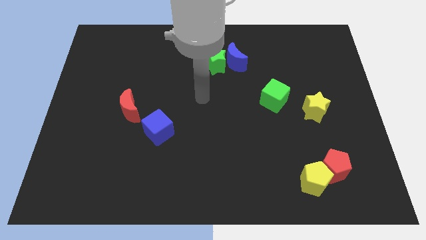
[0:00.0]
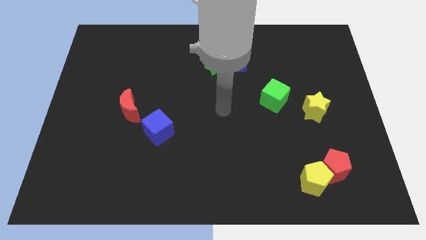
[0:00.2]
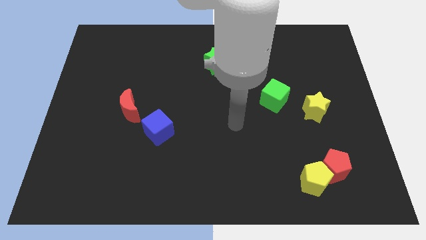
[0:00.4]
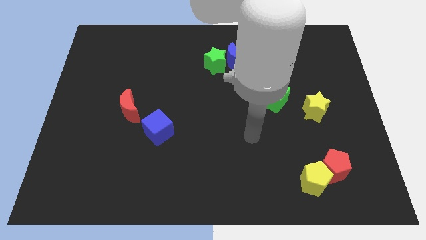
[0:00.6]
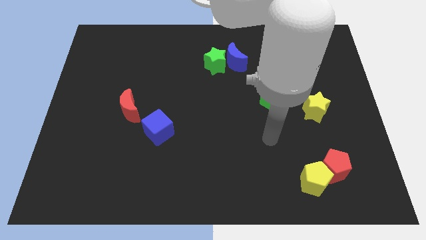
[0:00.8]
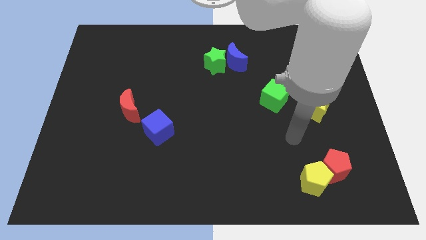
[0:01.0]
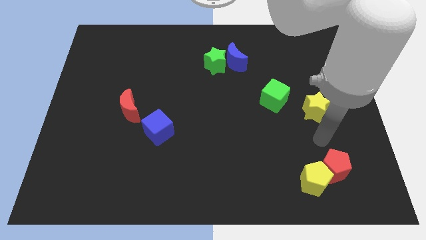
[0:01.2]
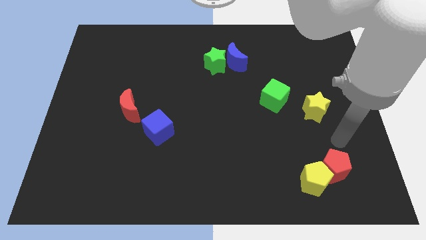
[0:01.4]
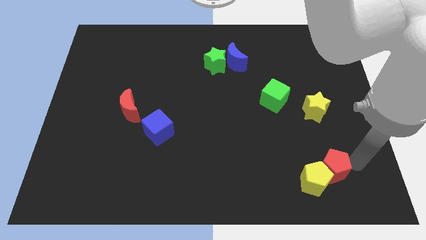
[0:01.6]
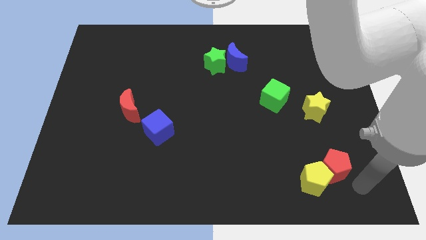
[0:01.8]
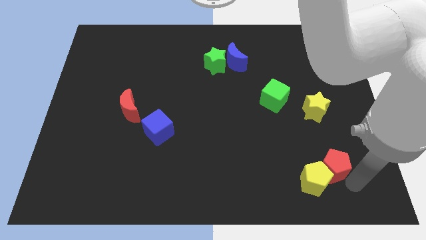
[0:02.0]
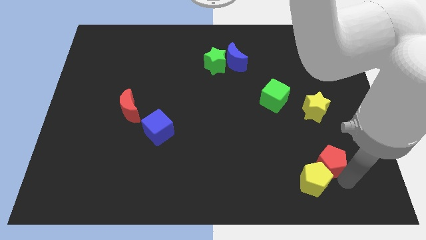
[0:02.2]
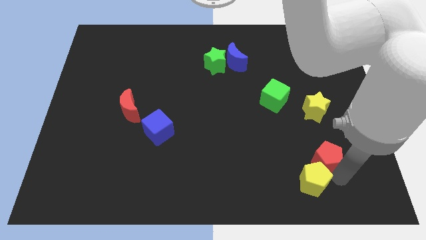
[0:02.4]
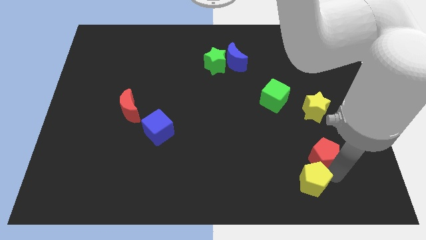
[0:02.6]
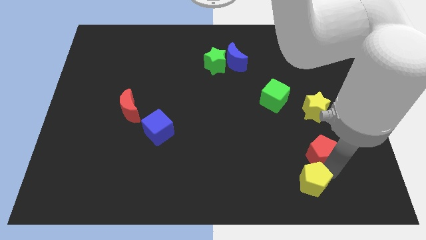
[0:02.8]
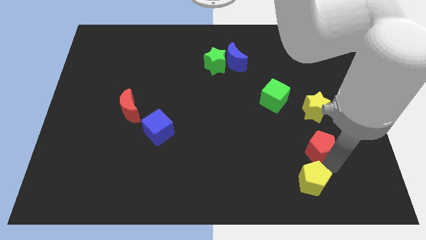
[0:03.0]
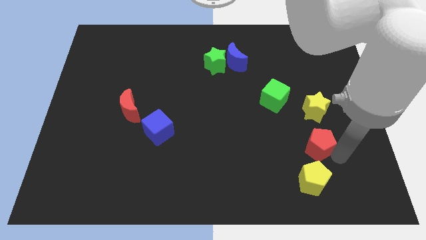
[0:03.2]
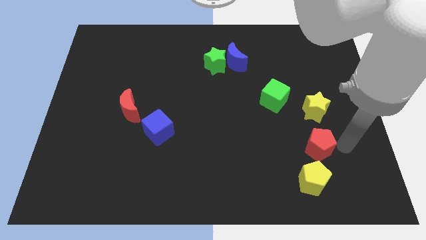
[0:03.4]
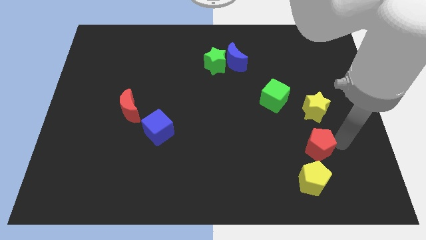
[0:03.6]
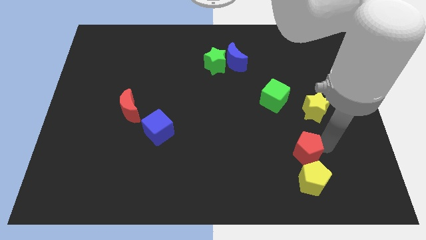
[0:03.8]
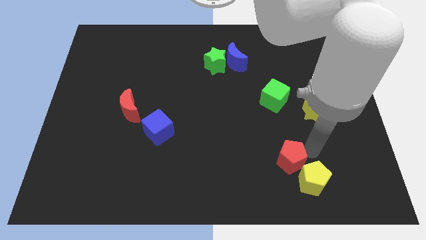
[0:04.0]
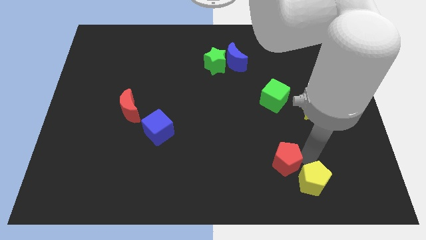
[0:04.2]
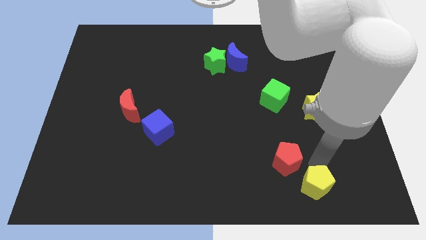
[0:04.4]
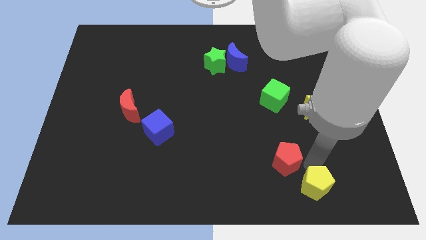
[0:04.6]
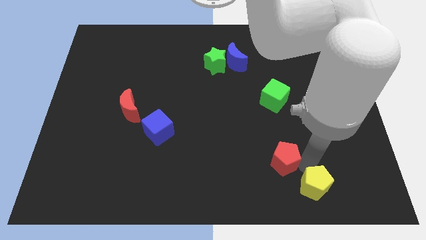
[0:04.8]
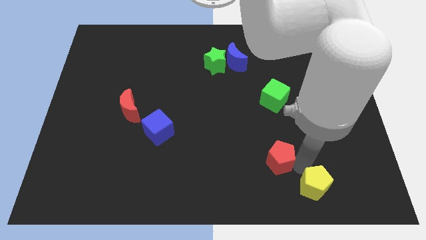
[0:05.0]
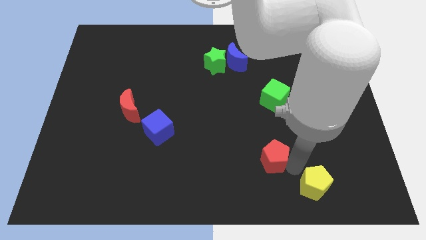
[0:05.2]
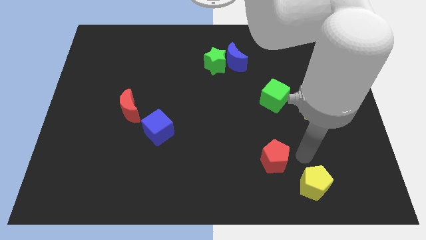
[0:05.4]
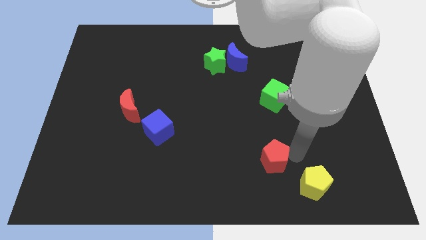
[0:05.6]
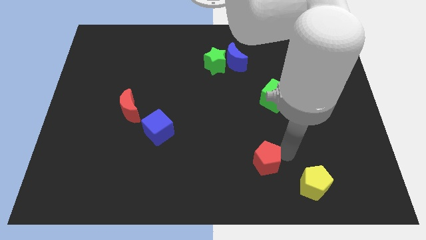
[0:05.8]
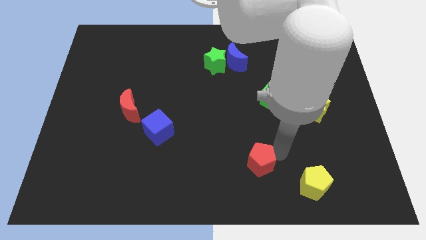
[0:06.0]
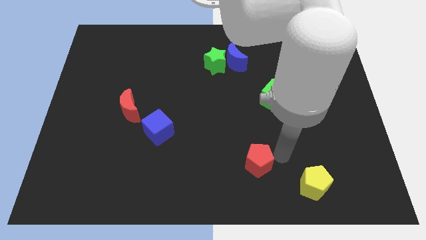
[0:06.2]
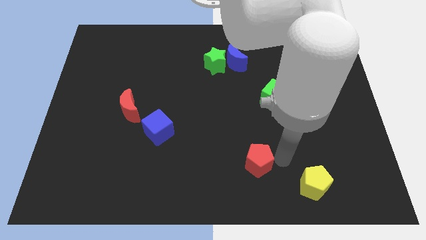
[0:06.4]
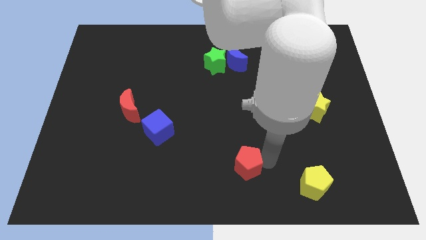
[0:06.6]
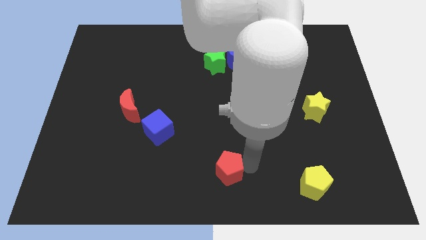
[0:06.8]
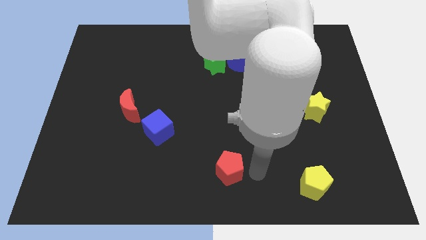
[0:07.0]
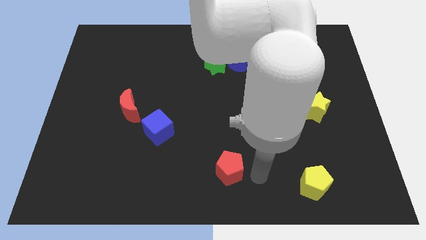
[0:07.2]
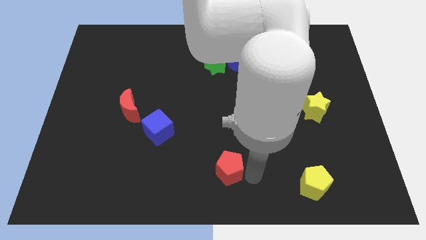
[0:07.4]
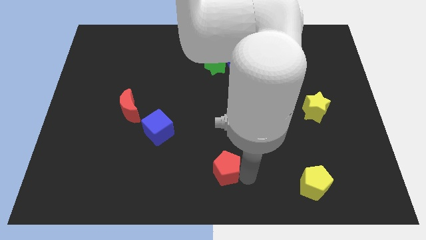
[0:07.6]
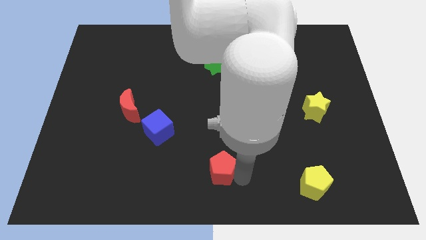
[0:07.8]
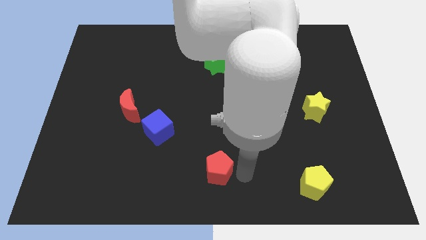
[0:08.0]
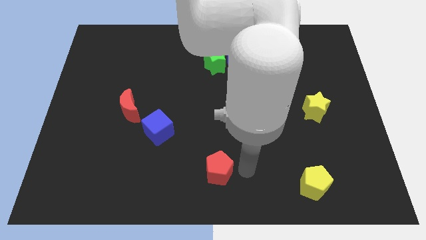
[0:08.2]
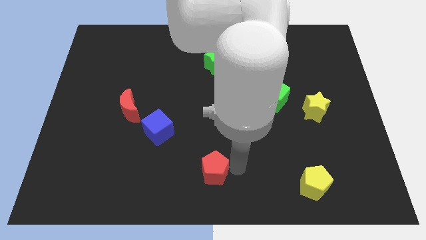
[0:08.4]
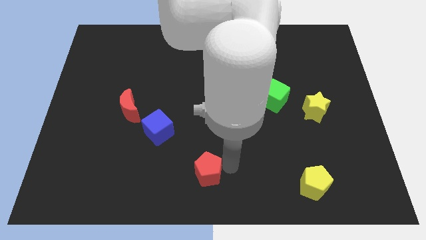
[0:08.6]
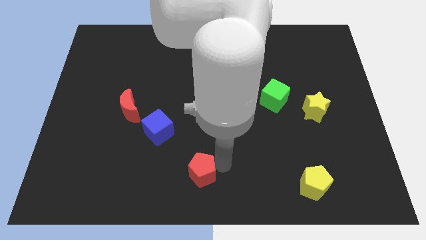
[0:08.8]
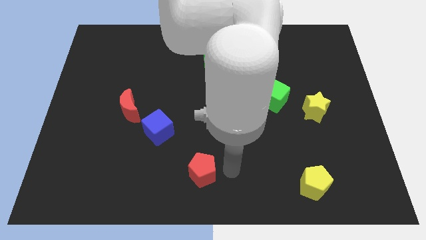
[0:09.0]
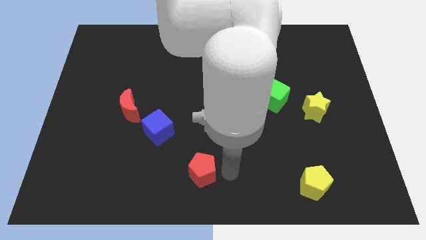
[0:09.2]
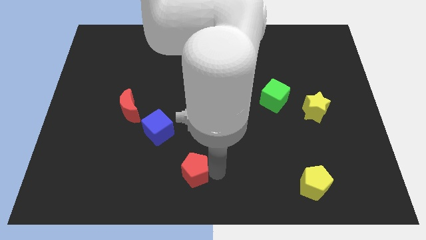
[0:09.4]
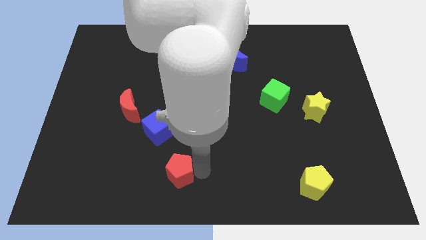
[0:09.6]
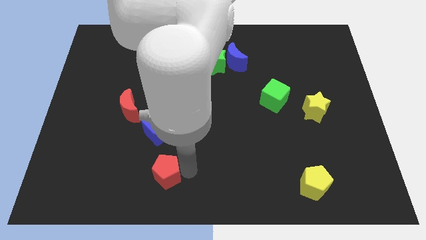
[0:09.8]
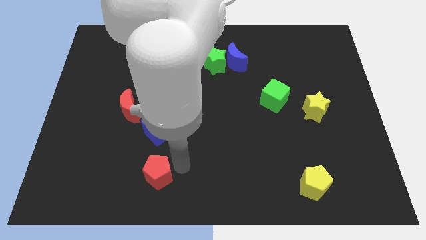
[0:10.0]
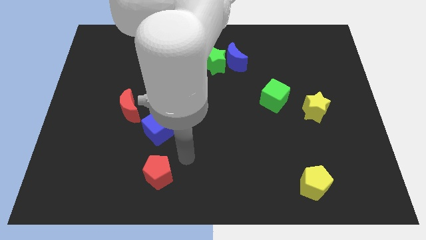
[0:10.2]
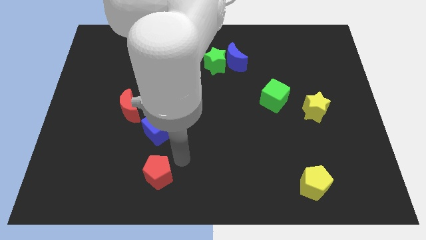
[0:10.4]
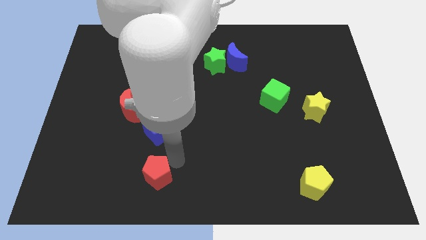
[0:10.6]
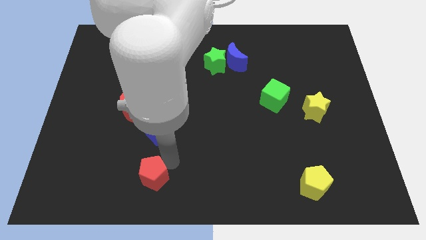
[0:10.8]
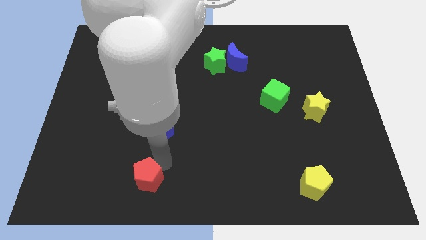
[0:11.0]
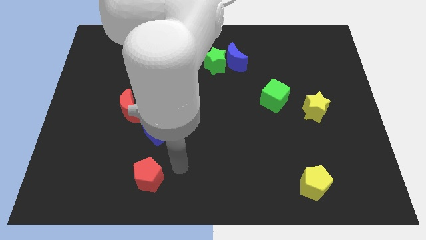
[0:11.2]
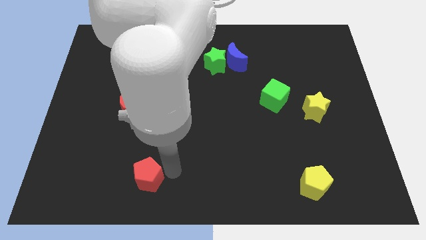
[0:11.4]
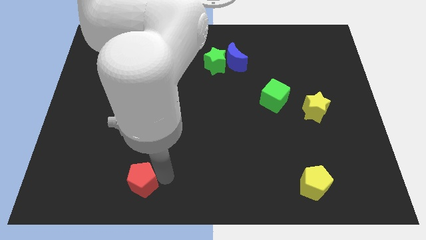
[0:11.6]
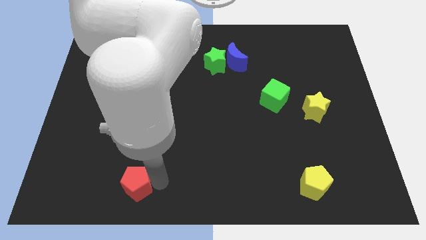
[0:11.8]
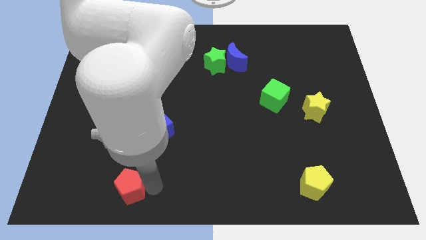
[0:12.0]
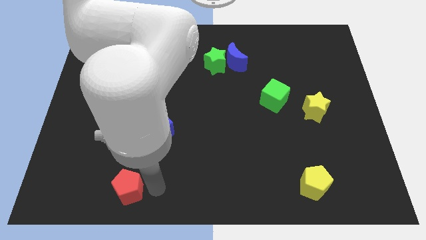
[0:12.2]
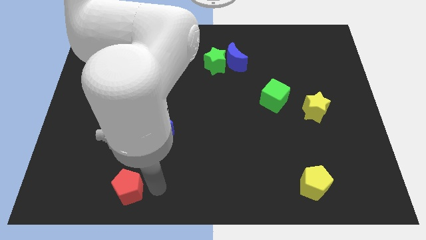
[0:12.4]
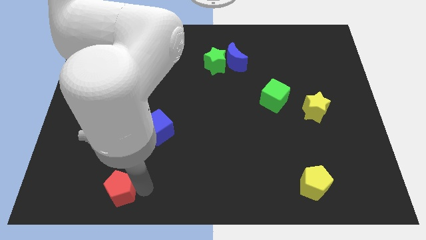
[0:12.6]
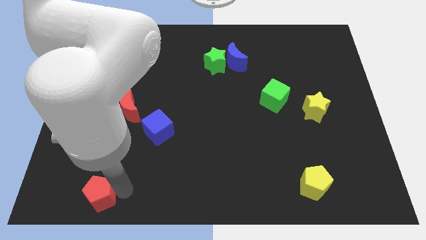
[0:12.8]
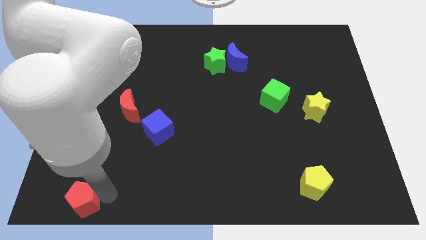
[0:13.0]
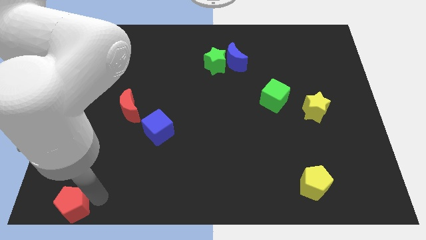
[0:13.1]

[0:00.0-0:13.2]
slide the red pentagon to the bottom left

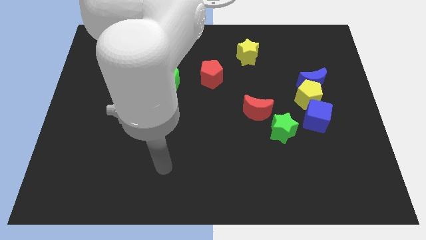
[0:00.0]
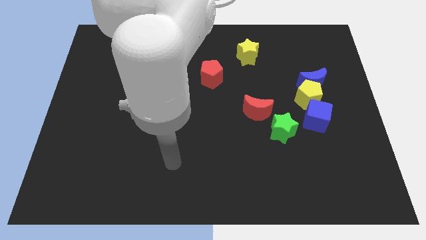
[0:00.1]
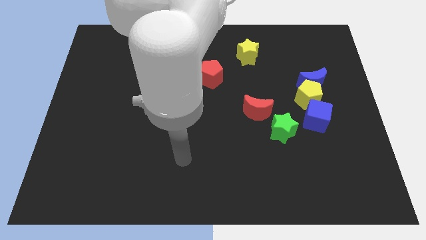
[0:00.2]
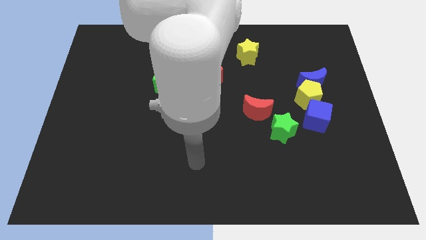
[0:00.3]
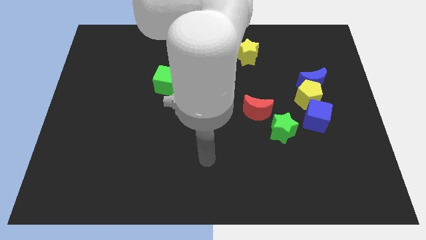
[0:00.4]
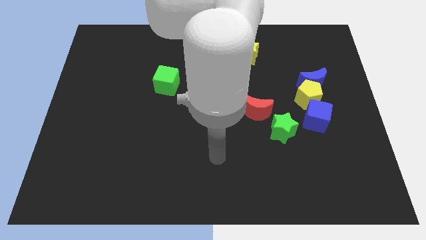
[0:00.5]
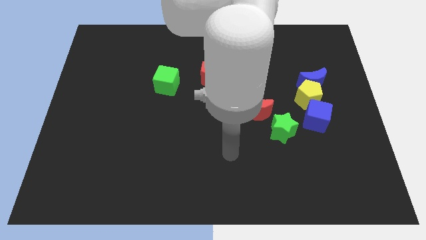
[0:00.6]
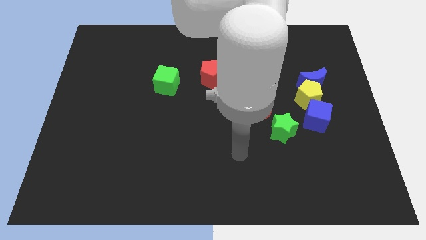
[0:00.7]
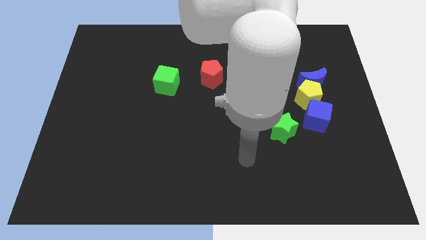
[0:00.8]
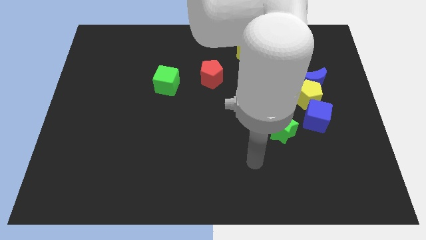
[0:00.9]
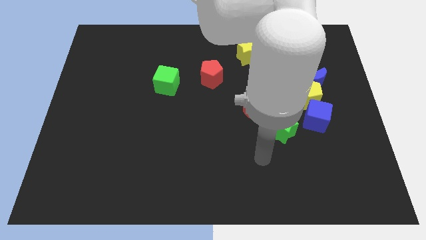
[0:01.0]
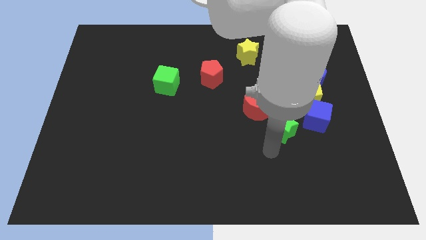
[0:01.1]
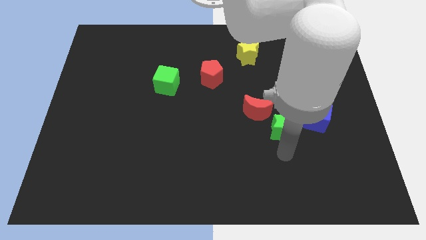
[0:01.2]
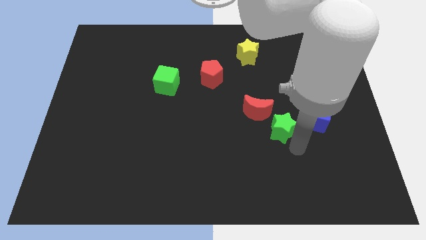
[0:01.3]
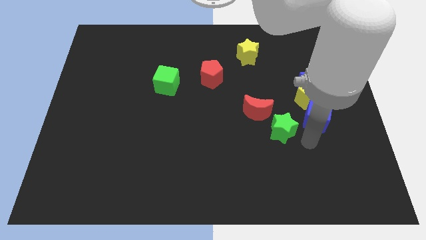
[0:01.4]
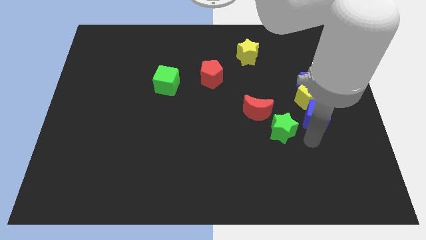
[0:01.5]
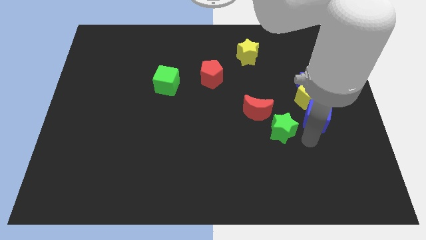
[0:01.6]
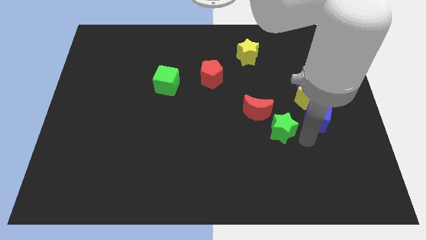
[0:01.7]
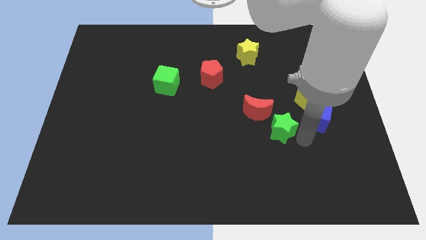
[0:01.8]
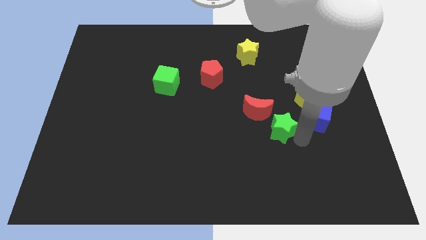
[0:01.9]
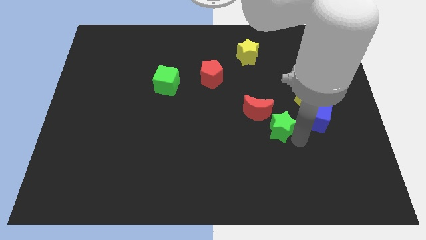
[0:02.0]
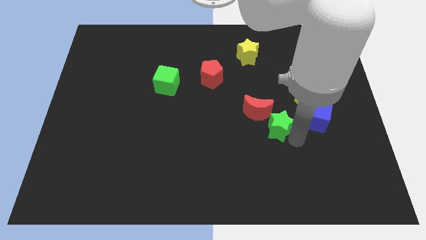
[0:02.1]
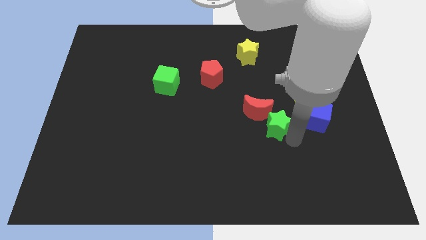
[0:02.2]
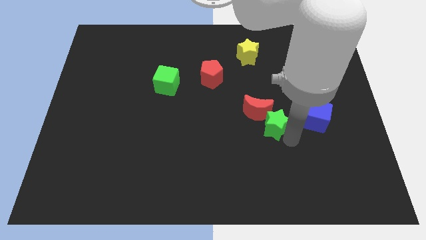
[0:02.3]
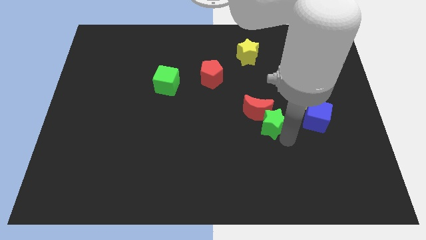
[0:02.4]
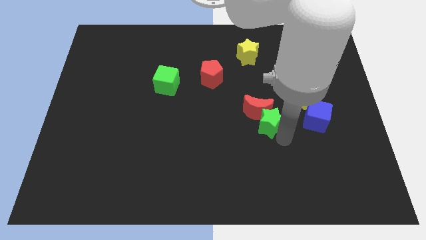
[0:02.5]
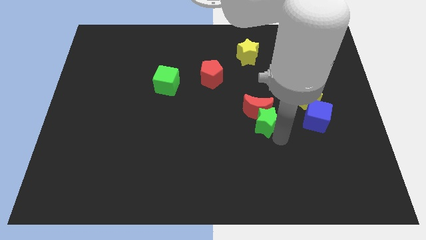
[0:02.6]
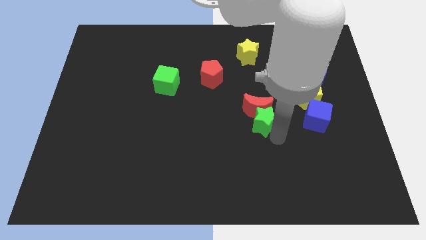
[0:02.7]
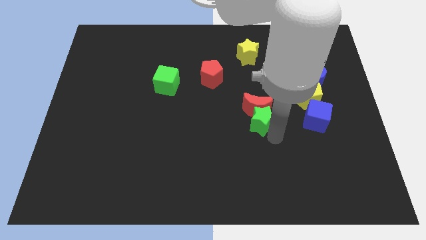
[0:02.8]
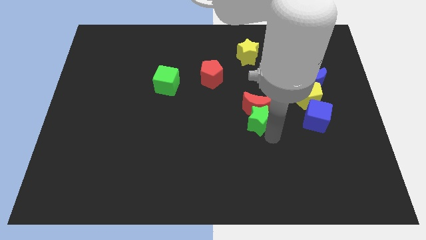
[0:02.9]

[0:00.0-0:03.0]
put the green star to the middle of the board
